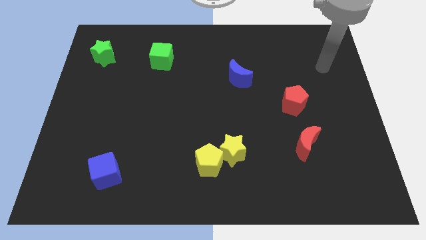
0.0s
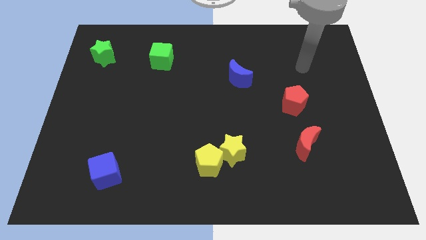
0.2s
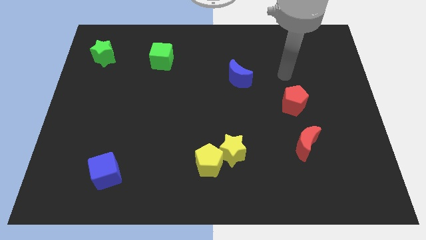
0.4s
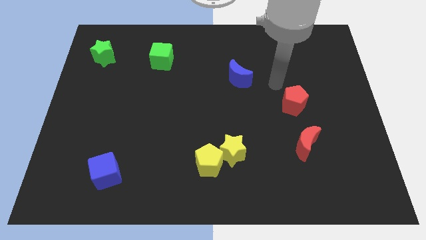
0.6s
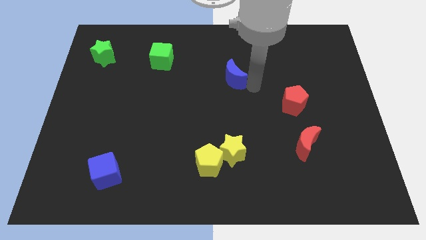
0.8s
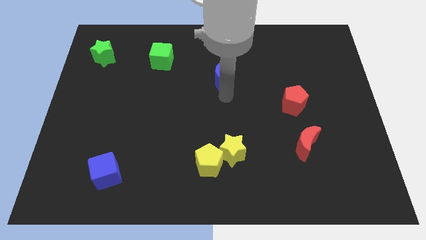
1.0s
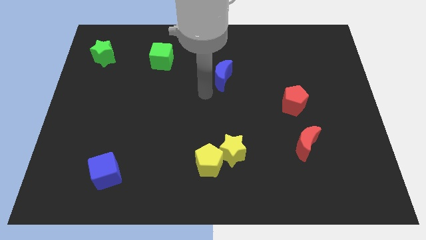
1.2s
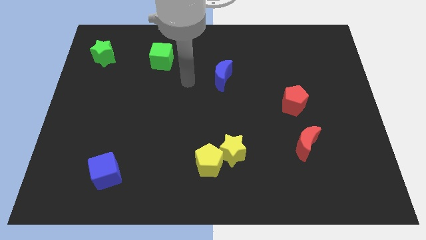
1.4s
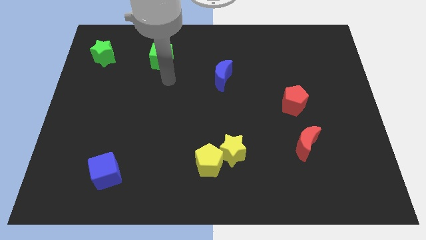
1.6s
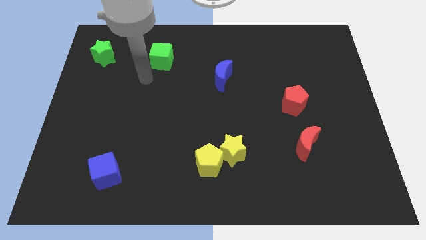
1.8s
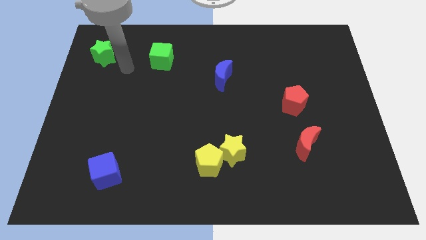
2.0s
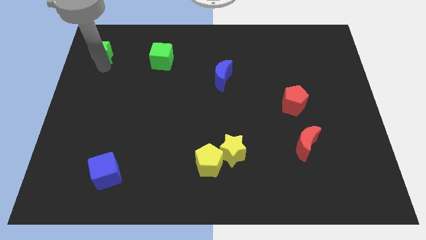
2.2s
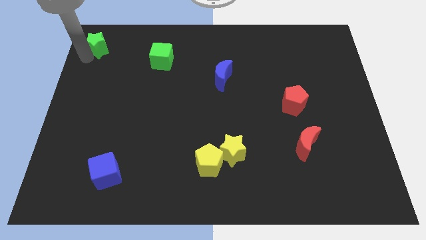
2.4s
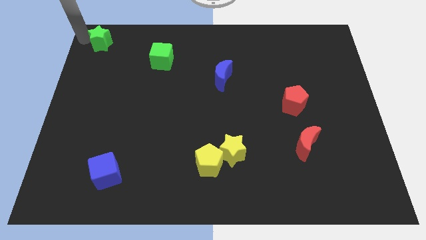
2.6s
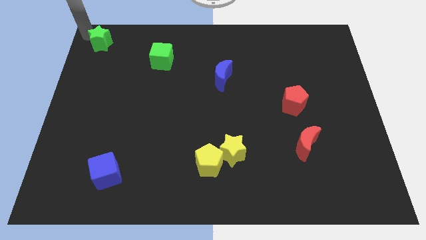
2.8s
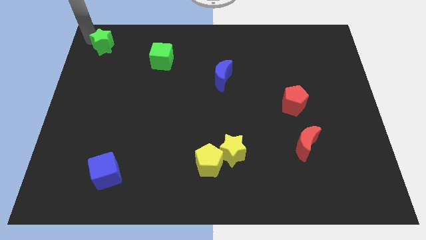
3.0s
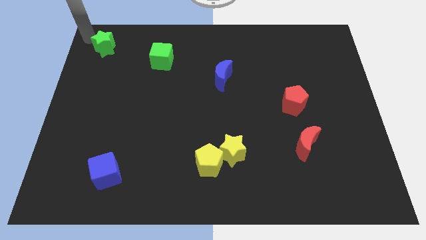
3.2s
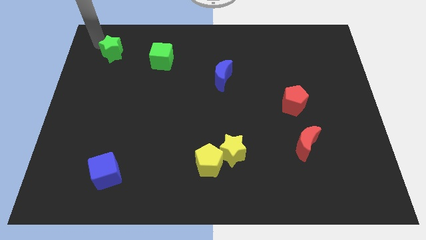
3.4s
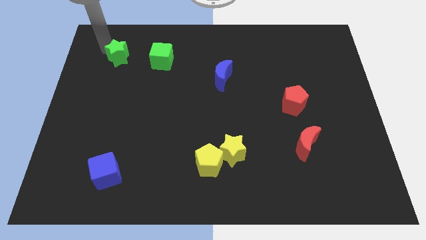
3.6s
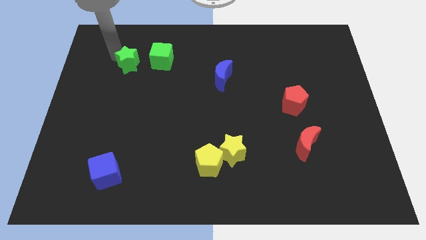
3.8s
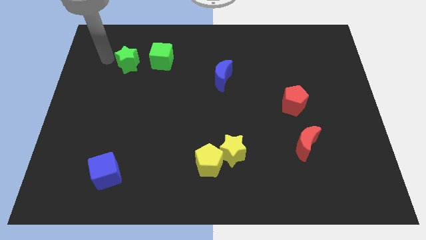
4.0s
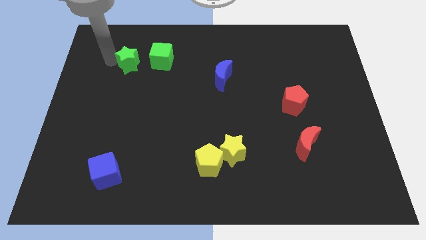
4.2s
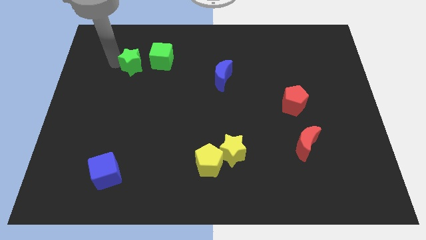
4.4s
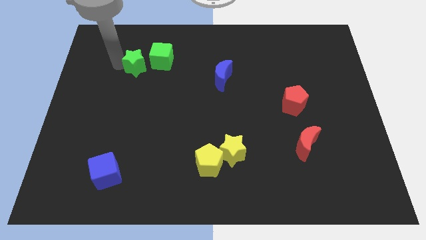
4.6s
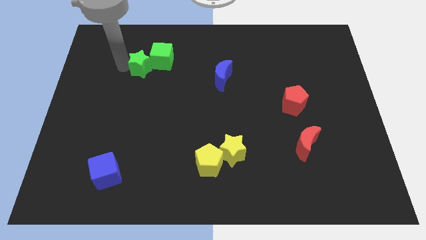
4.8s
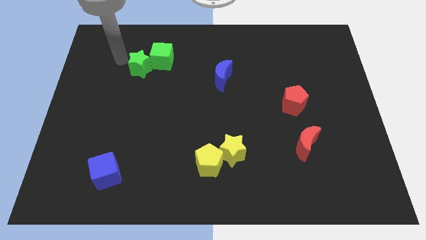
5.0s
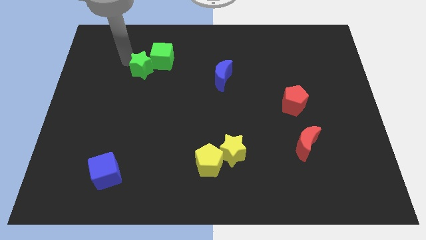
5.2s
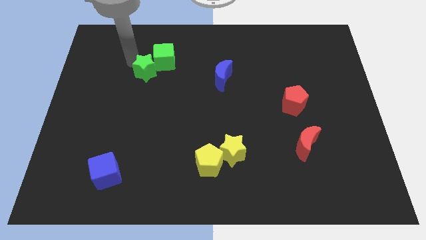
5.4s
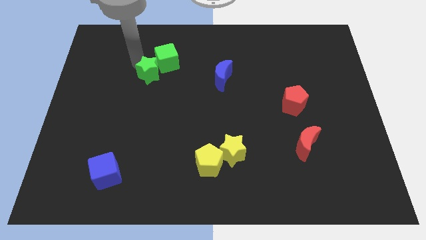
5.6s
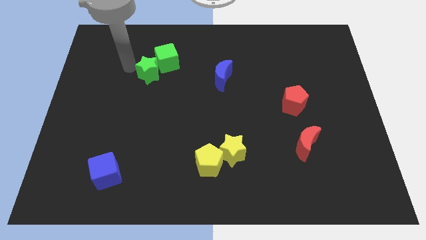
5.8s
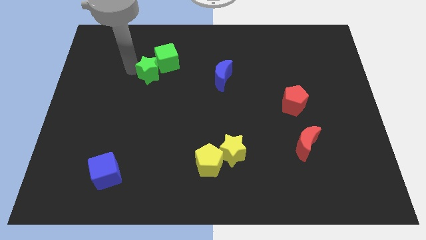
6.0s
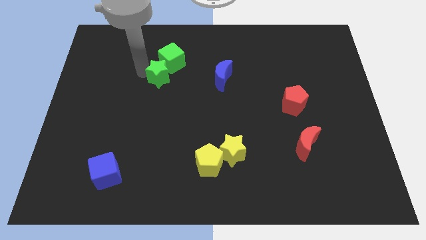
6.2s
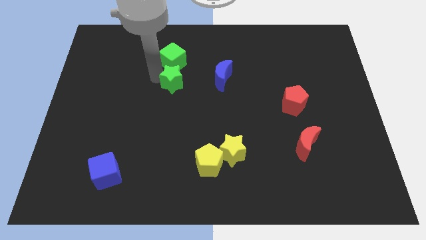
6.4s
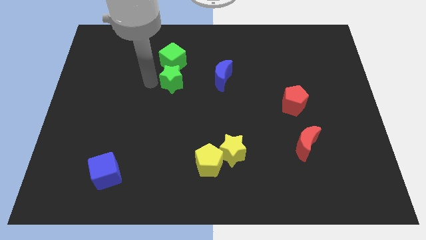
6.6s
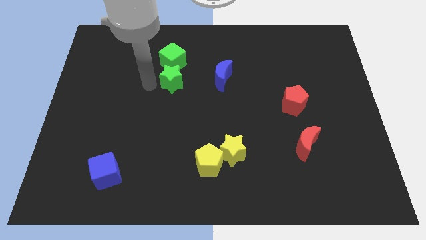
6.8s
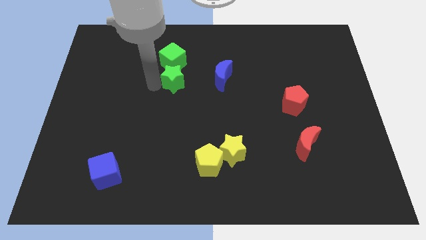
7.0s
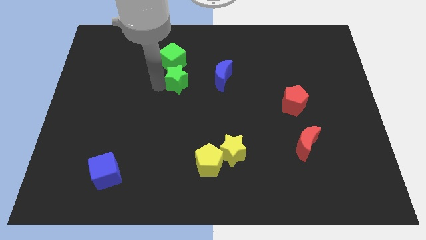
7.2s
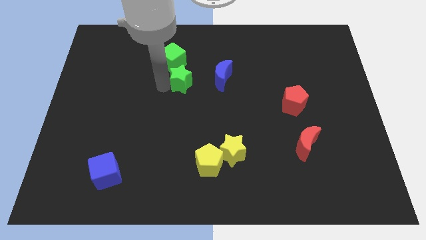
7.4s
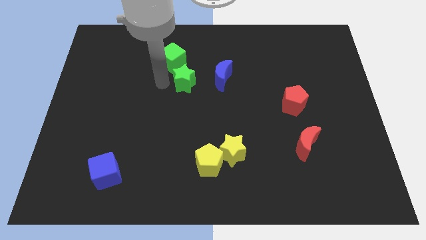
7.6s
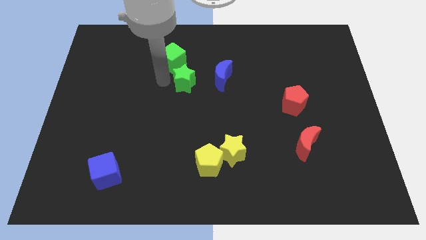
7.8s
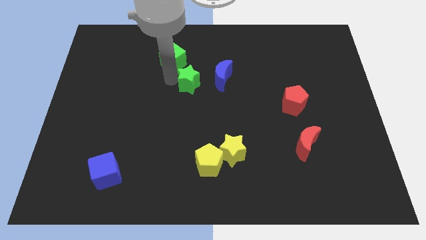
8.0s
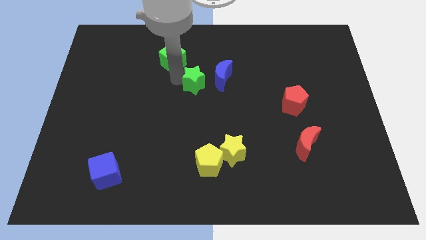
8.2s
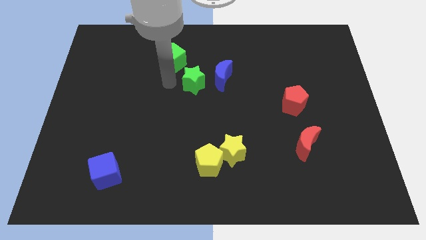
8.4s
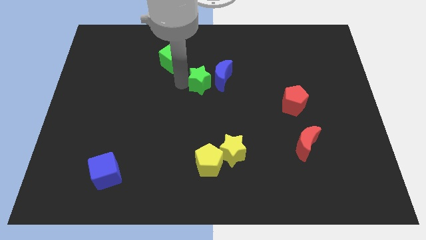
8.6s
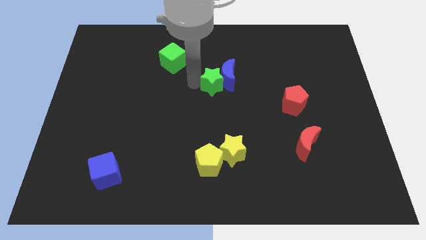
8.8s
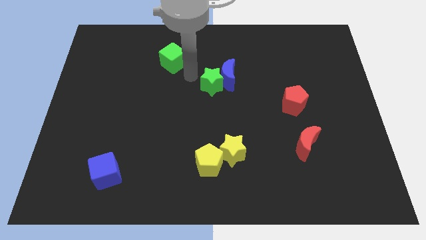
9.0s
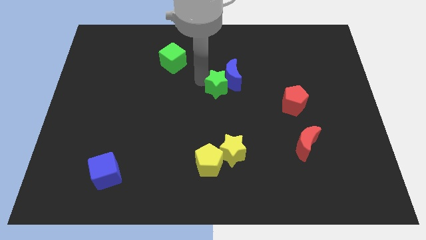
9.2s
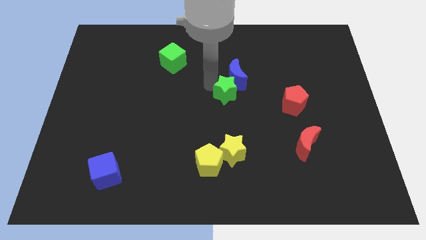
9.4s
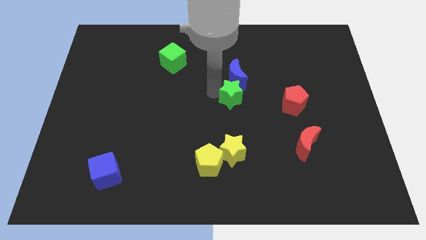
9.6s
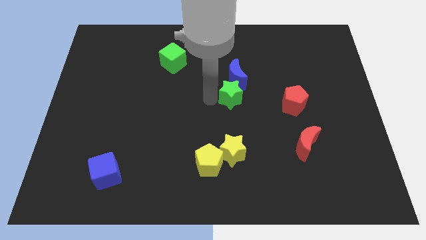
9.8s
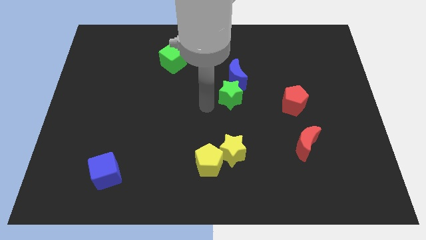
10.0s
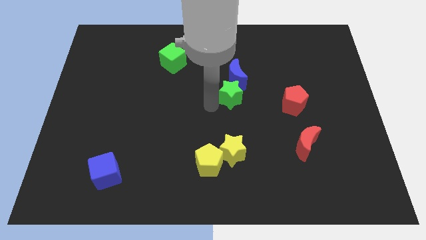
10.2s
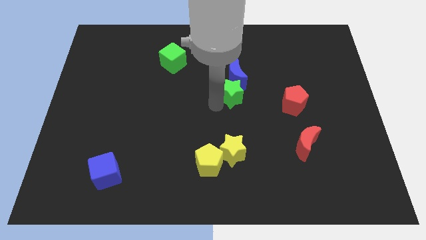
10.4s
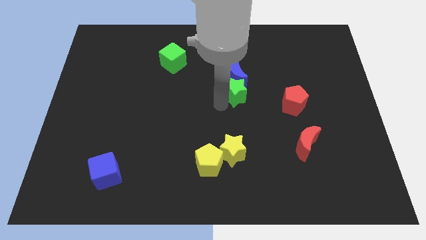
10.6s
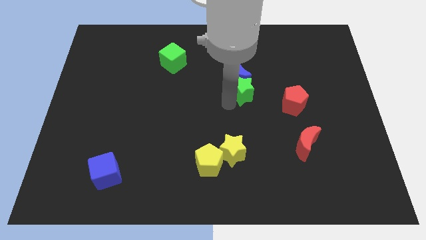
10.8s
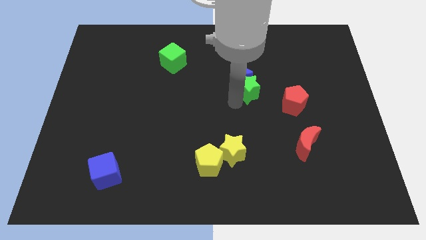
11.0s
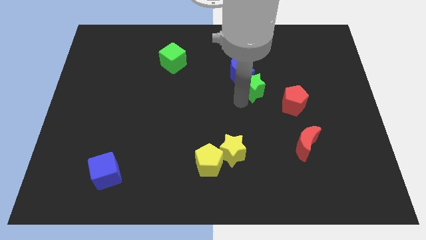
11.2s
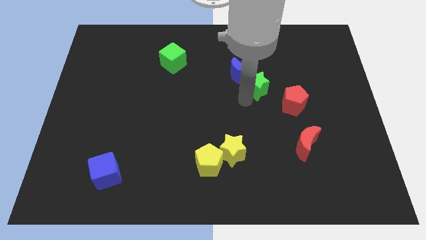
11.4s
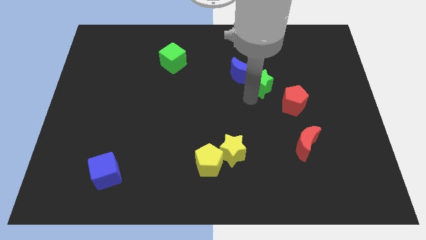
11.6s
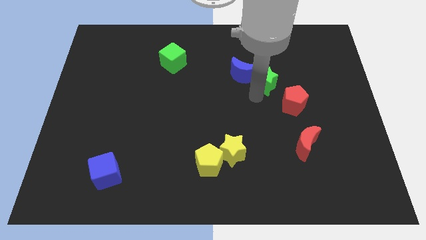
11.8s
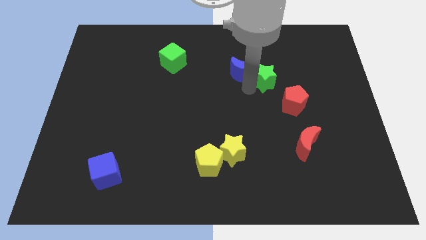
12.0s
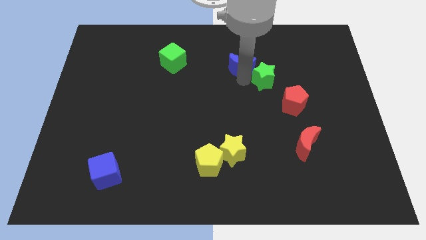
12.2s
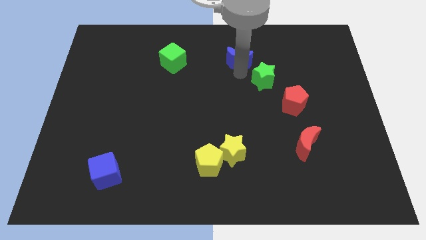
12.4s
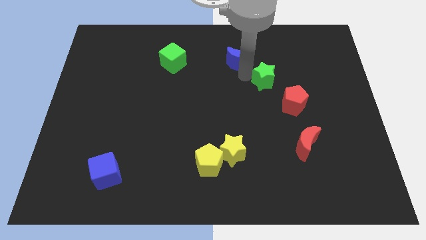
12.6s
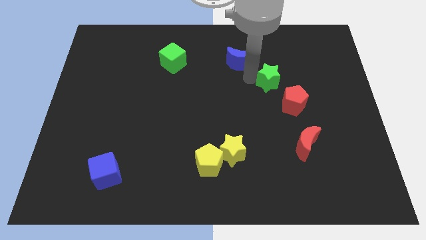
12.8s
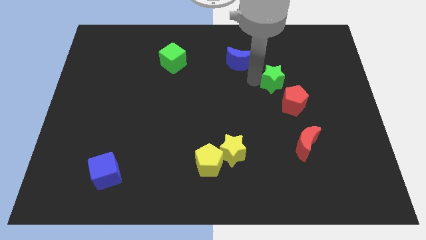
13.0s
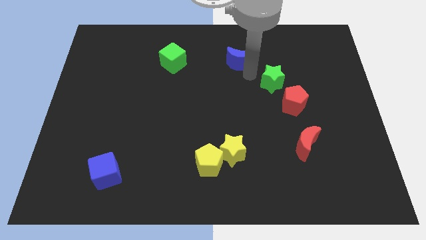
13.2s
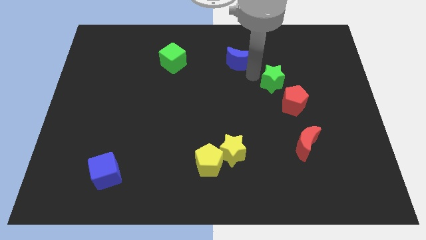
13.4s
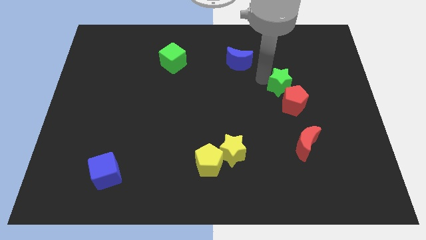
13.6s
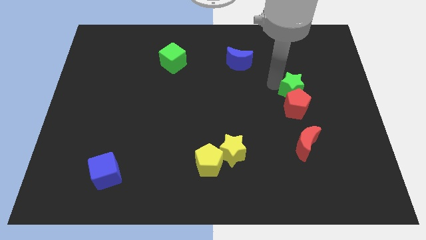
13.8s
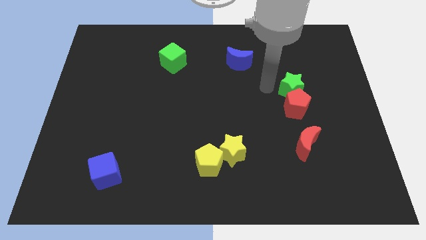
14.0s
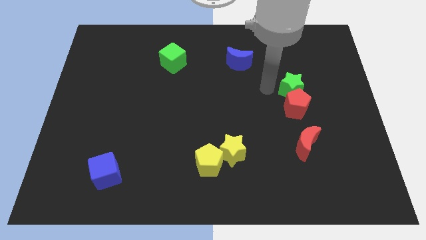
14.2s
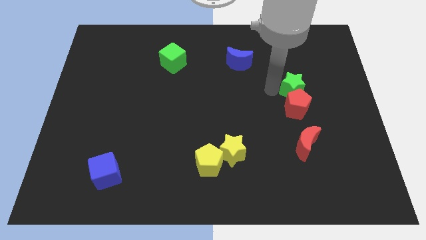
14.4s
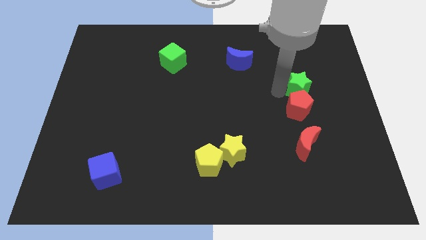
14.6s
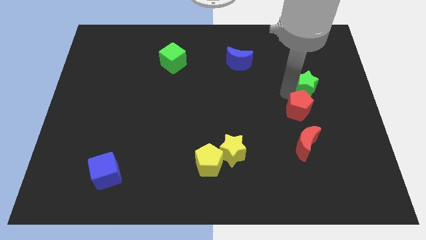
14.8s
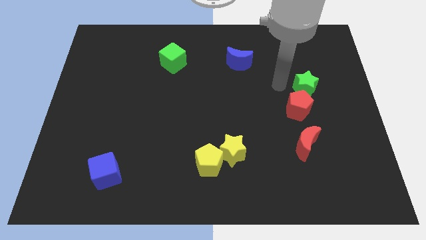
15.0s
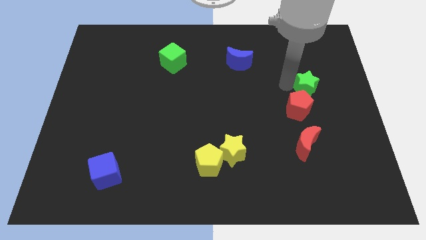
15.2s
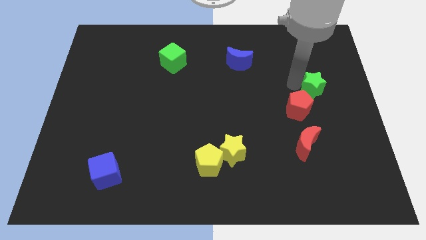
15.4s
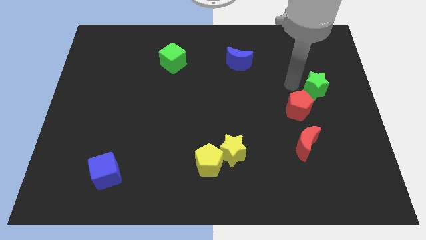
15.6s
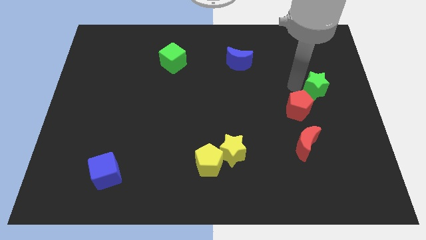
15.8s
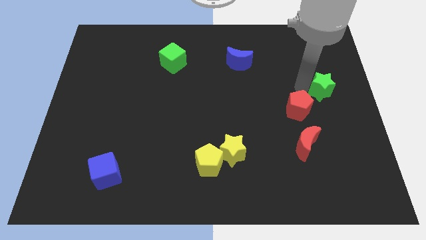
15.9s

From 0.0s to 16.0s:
move the green star to the right side of the board
